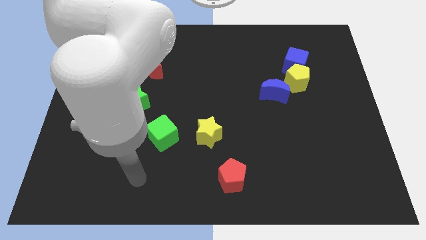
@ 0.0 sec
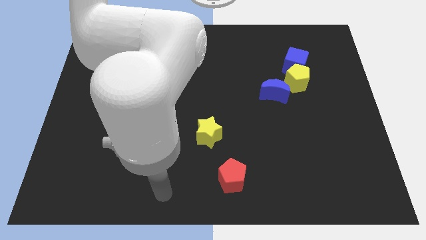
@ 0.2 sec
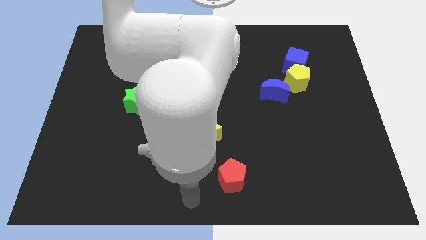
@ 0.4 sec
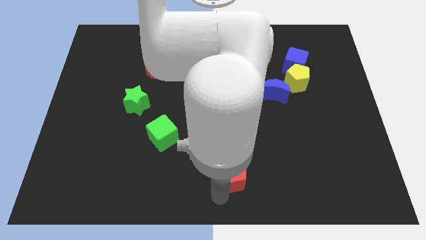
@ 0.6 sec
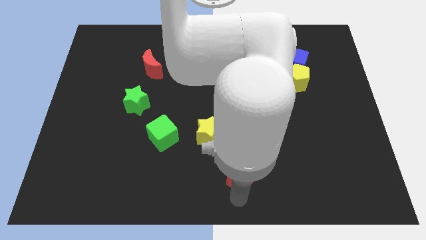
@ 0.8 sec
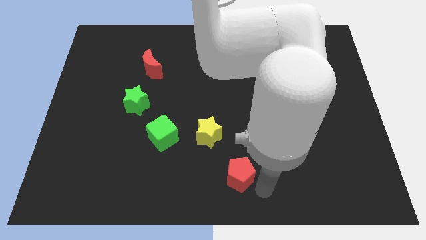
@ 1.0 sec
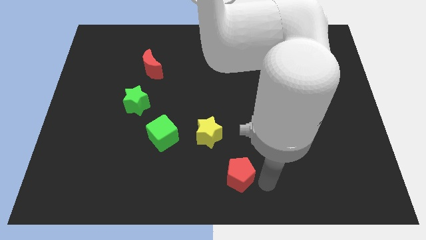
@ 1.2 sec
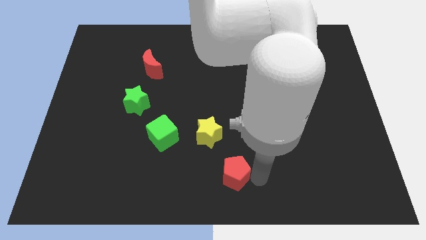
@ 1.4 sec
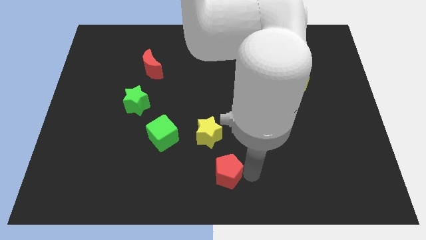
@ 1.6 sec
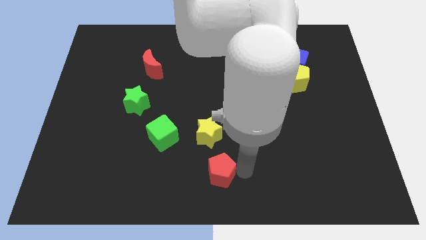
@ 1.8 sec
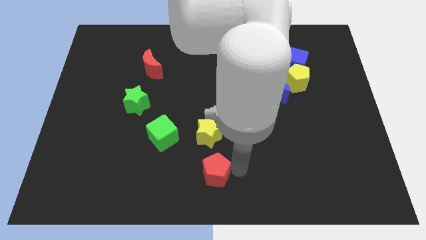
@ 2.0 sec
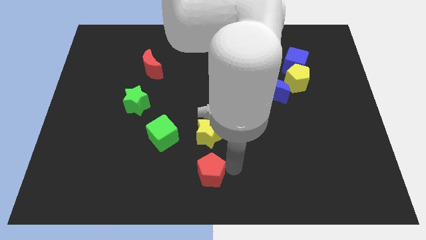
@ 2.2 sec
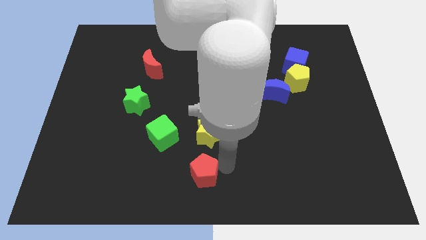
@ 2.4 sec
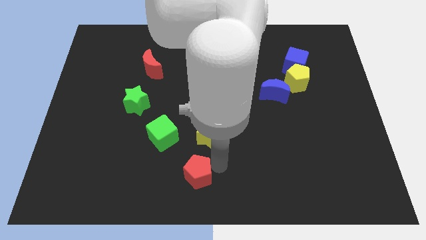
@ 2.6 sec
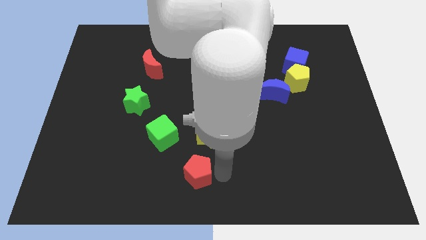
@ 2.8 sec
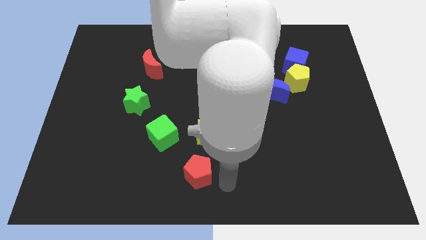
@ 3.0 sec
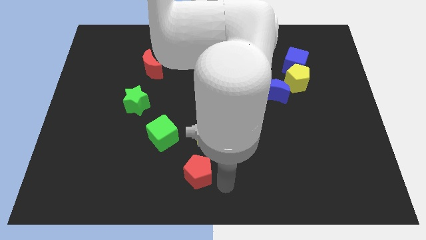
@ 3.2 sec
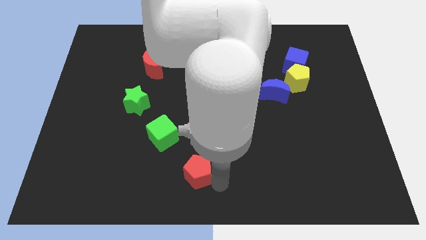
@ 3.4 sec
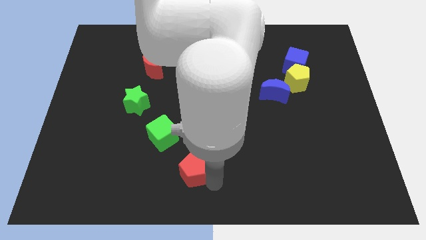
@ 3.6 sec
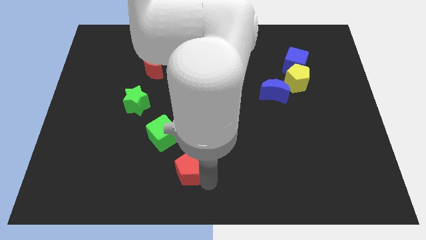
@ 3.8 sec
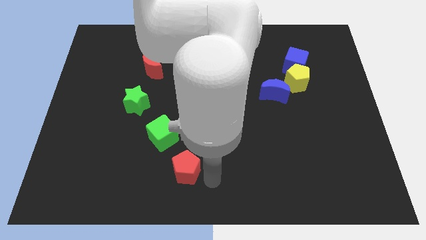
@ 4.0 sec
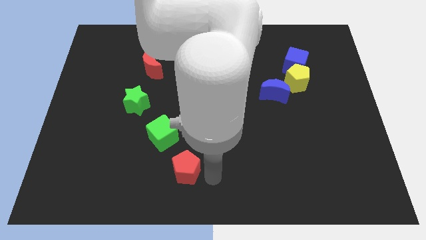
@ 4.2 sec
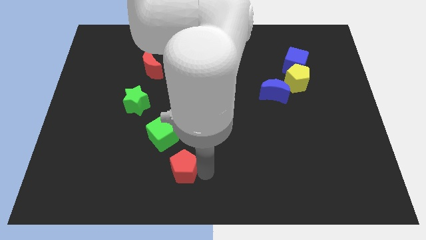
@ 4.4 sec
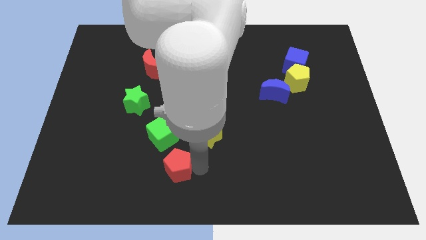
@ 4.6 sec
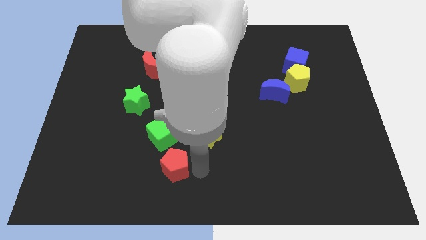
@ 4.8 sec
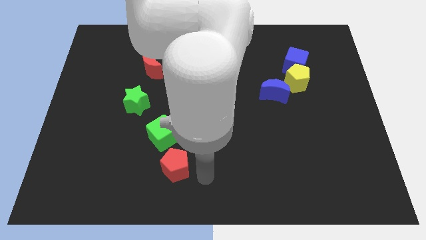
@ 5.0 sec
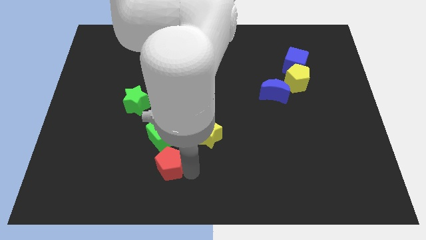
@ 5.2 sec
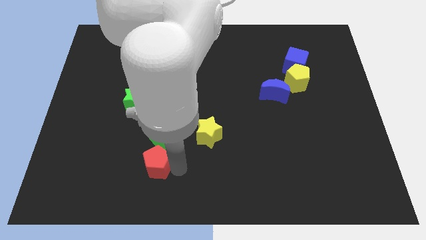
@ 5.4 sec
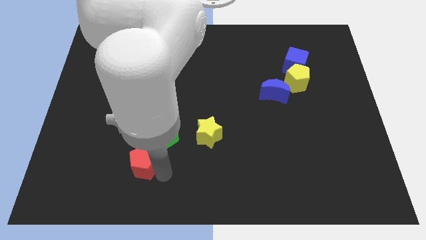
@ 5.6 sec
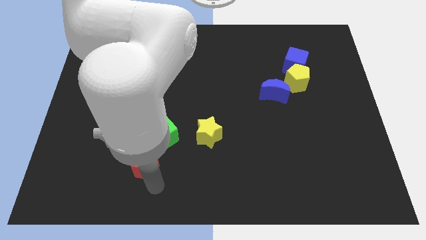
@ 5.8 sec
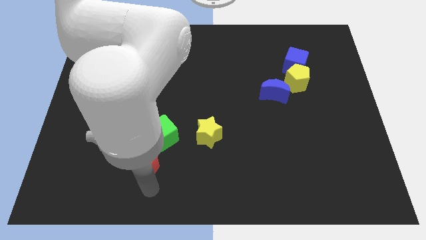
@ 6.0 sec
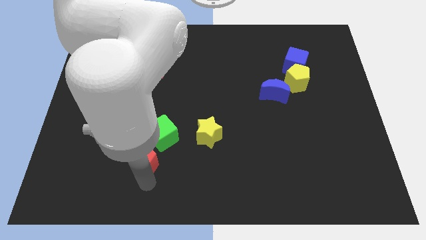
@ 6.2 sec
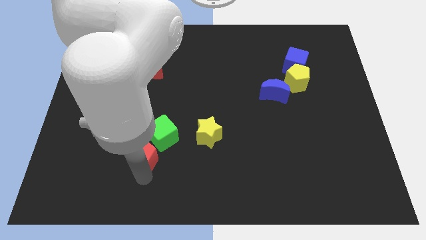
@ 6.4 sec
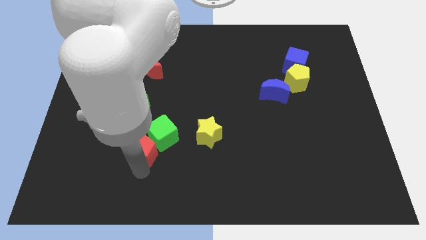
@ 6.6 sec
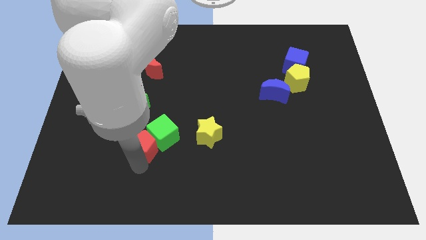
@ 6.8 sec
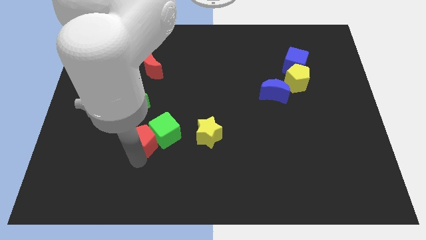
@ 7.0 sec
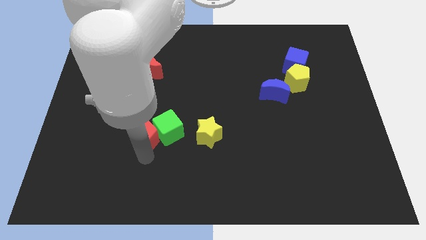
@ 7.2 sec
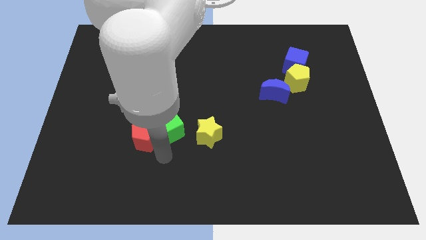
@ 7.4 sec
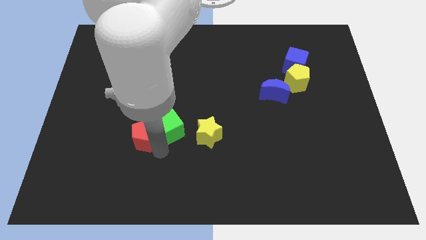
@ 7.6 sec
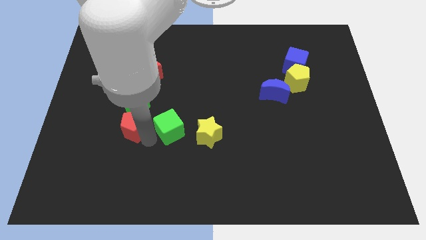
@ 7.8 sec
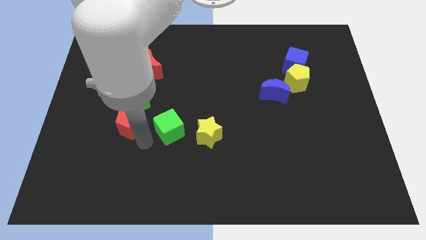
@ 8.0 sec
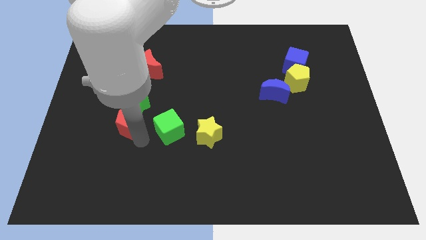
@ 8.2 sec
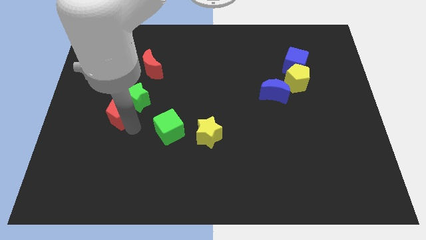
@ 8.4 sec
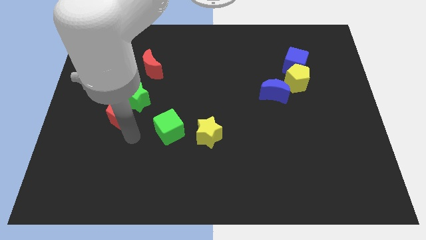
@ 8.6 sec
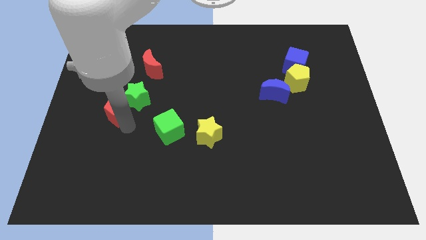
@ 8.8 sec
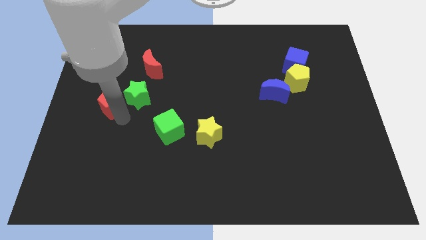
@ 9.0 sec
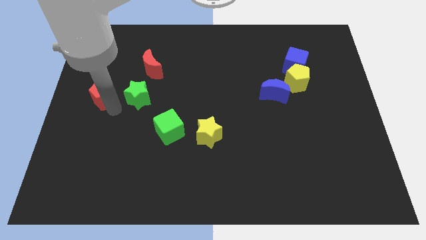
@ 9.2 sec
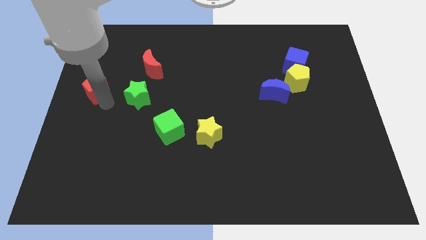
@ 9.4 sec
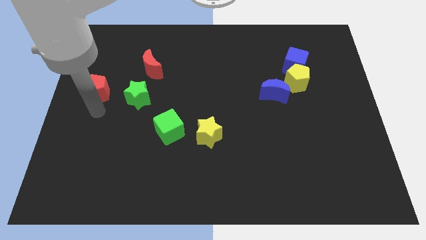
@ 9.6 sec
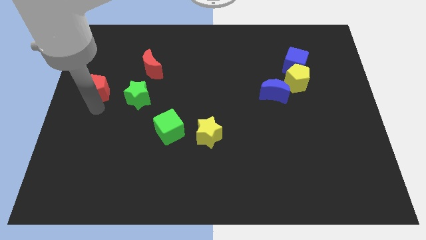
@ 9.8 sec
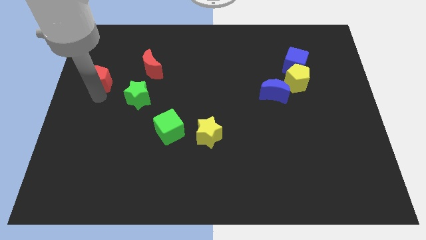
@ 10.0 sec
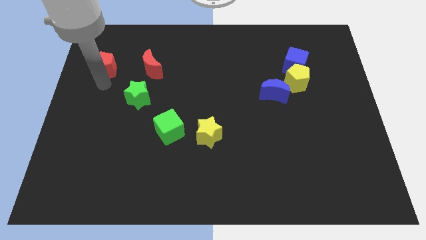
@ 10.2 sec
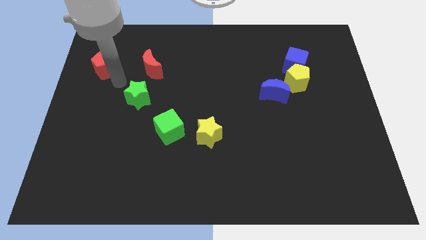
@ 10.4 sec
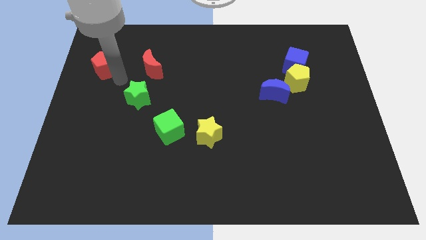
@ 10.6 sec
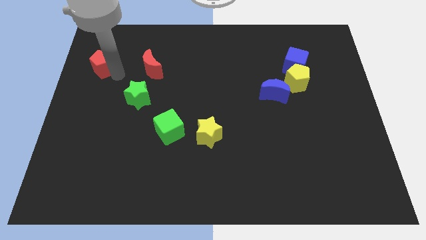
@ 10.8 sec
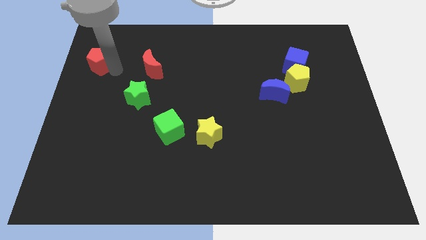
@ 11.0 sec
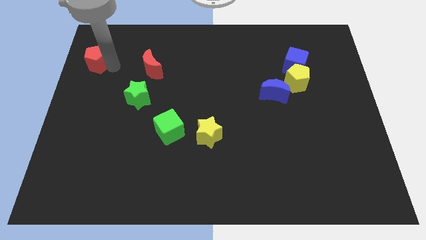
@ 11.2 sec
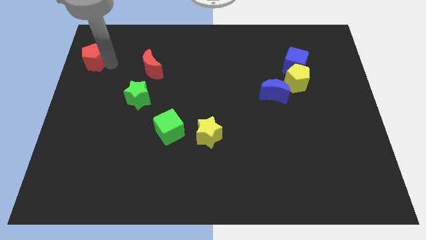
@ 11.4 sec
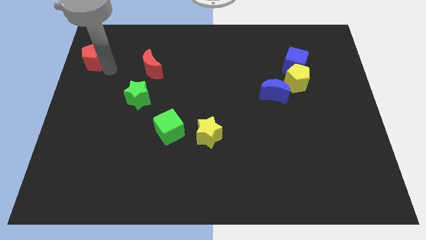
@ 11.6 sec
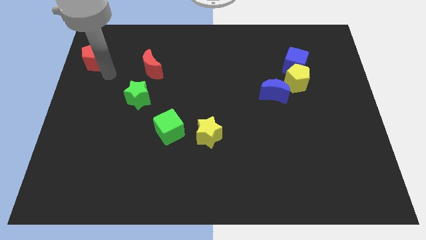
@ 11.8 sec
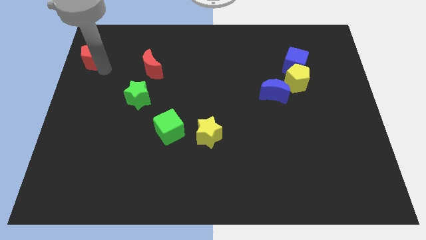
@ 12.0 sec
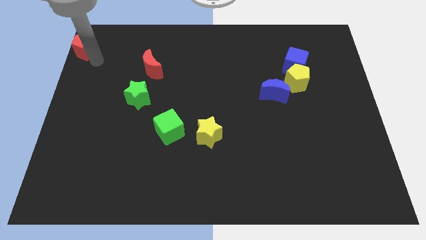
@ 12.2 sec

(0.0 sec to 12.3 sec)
slide the red pentagon to the upper left corner
